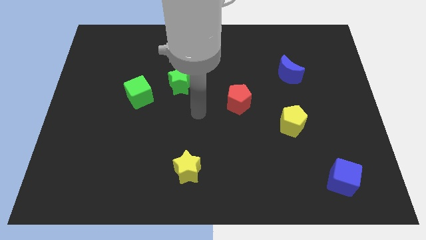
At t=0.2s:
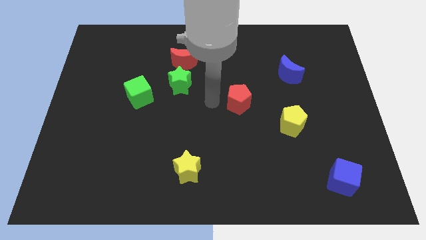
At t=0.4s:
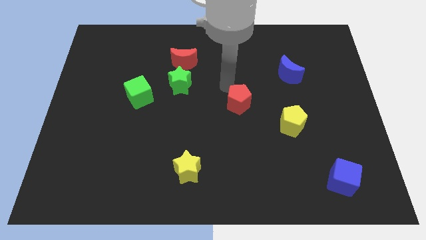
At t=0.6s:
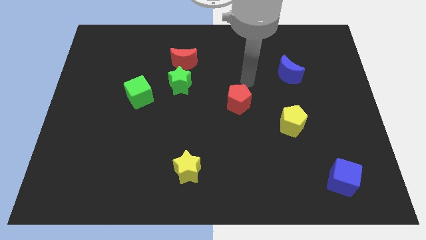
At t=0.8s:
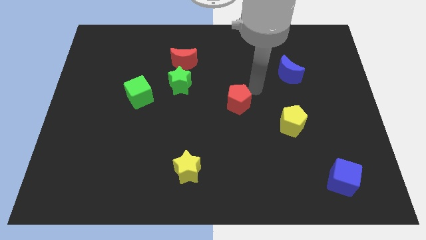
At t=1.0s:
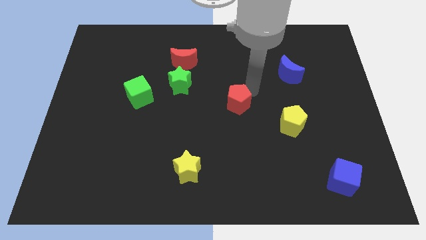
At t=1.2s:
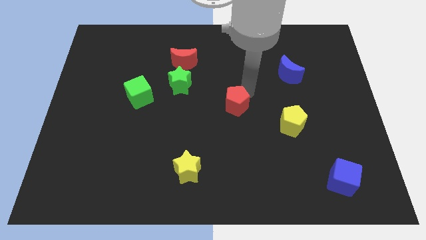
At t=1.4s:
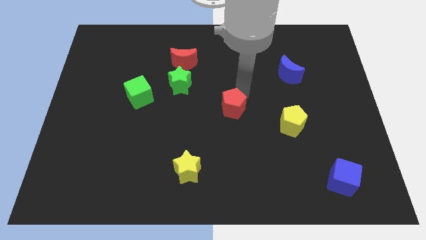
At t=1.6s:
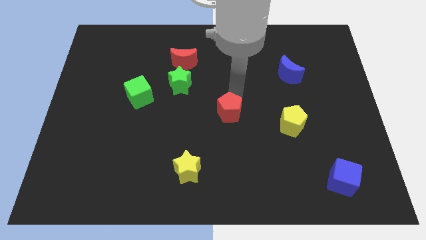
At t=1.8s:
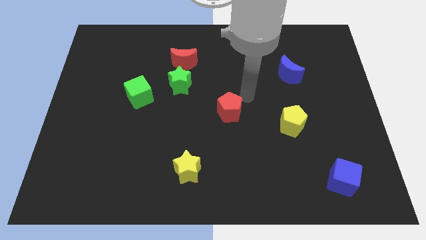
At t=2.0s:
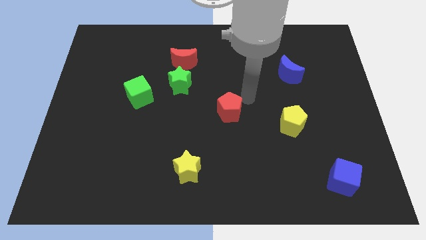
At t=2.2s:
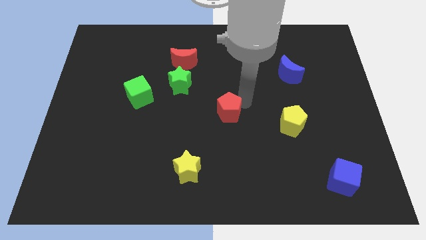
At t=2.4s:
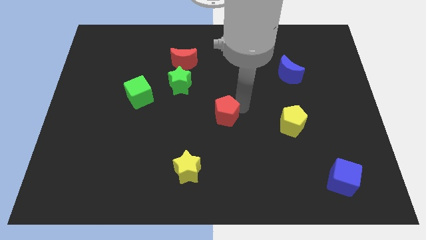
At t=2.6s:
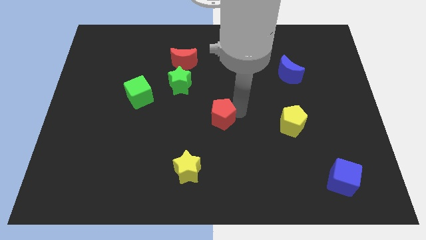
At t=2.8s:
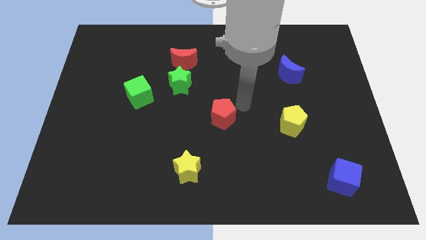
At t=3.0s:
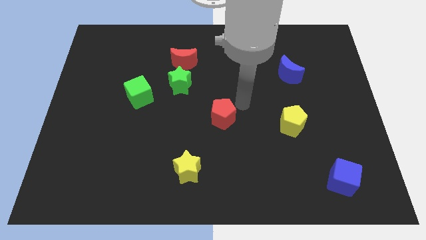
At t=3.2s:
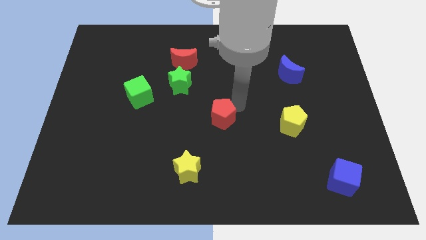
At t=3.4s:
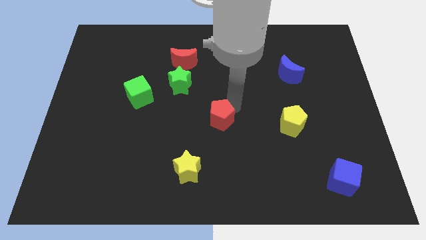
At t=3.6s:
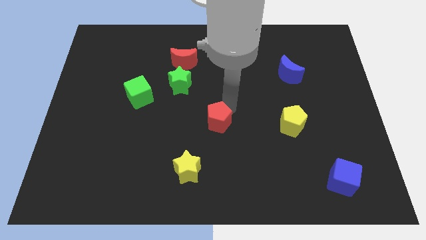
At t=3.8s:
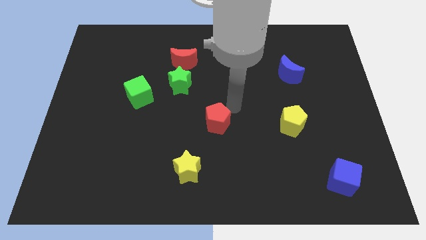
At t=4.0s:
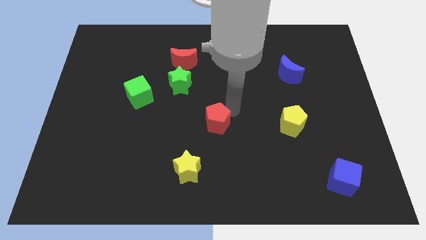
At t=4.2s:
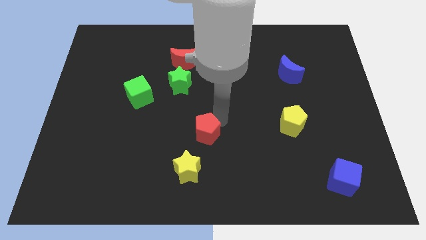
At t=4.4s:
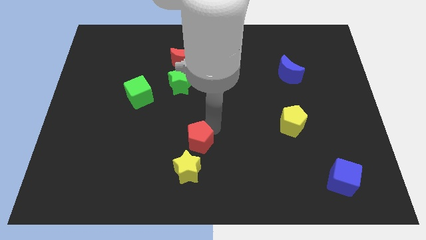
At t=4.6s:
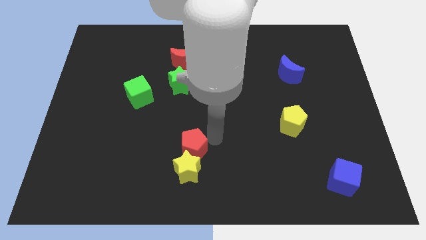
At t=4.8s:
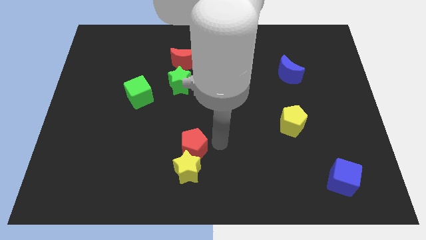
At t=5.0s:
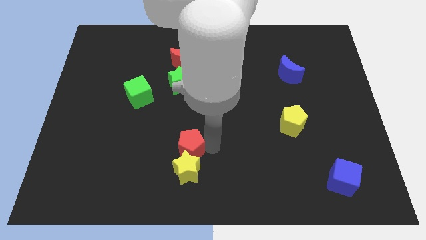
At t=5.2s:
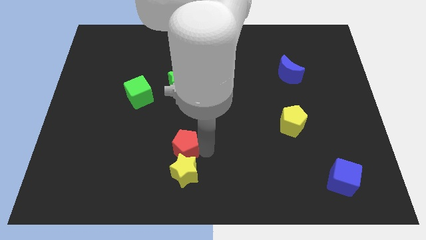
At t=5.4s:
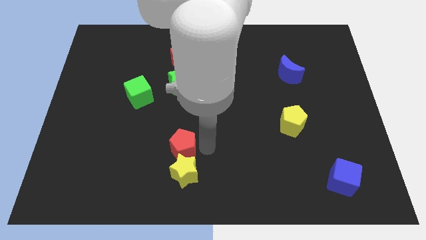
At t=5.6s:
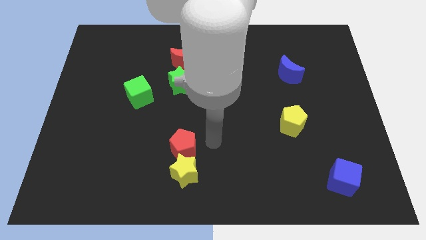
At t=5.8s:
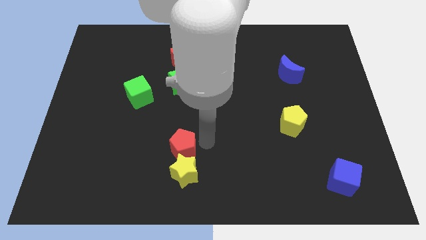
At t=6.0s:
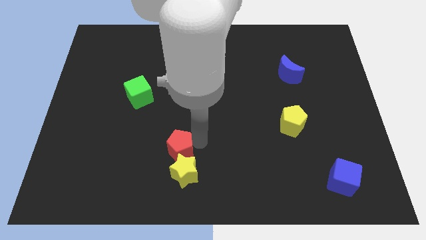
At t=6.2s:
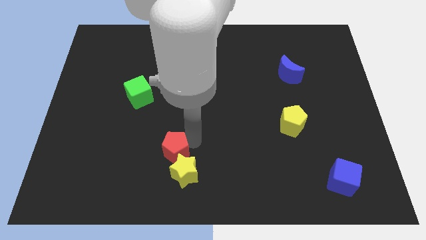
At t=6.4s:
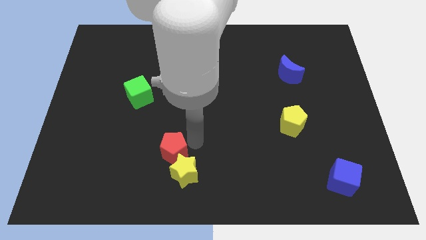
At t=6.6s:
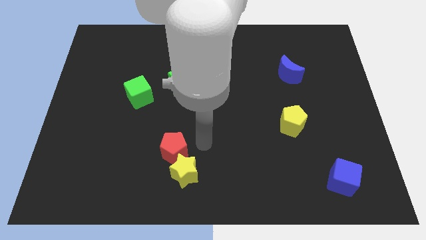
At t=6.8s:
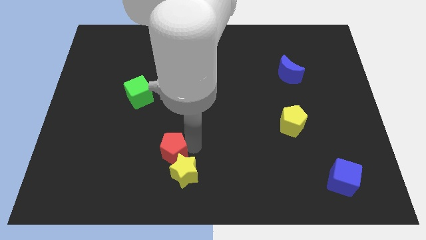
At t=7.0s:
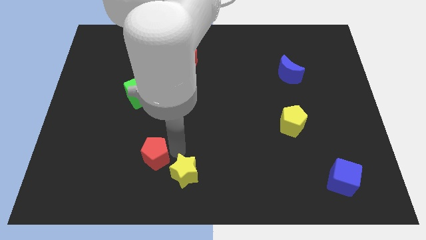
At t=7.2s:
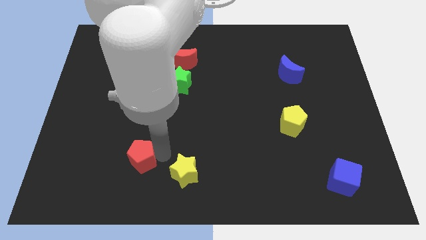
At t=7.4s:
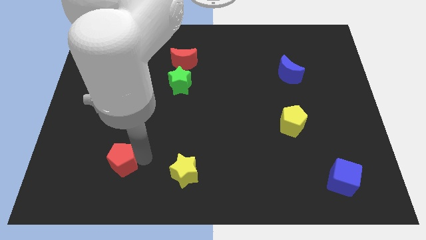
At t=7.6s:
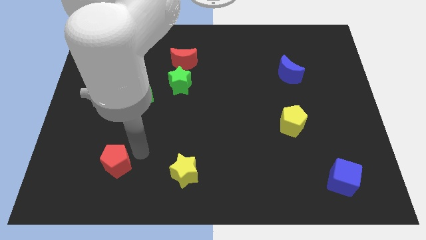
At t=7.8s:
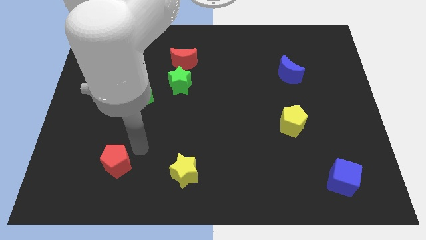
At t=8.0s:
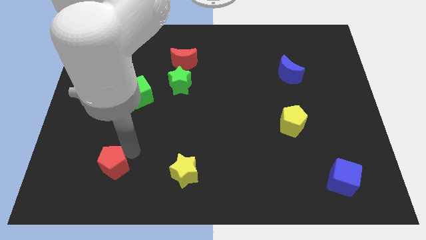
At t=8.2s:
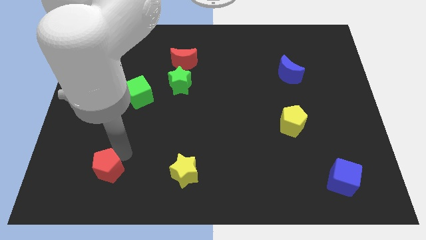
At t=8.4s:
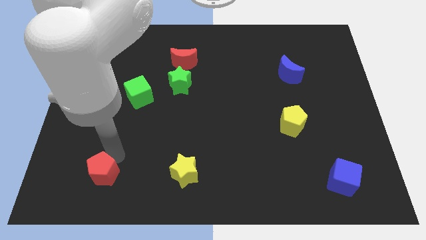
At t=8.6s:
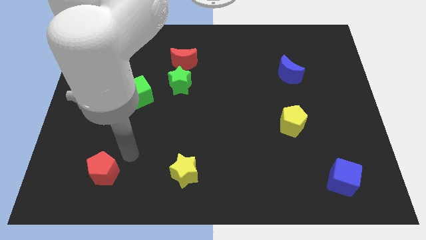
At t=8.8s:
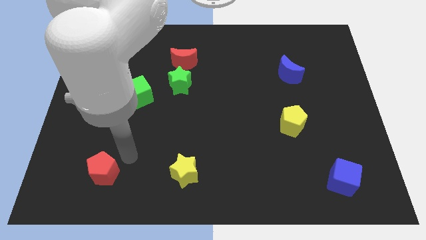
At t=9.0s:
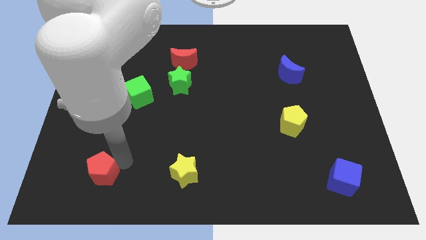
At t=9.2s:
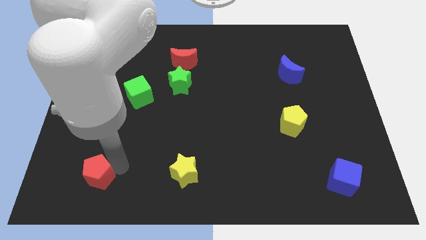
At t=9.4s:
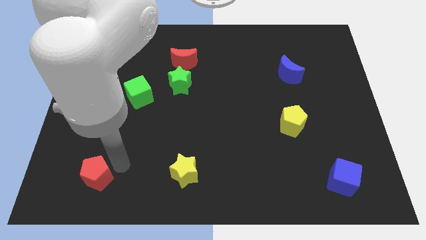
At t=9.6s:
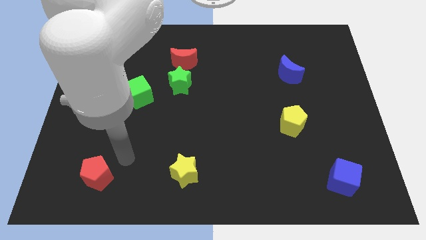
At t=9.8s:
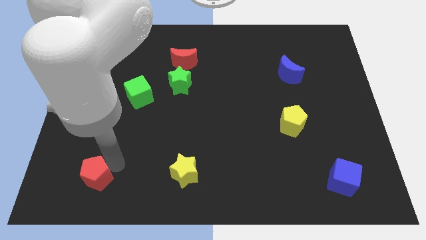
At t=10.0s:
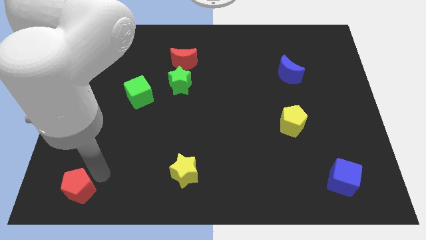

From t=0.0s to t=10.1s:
put the red pentagon to the lower left corner

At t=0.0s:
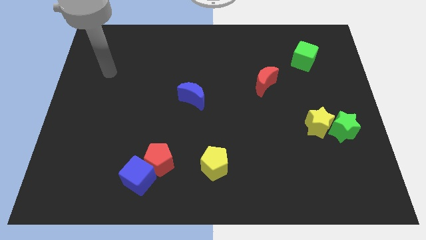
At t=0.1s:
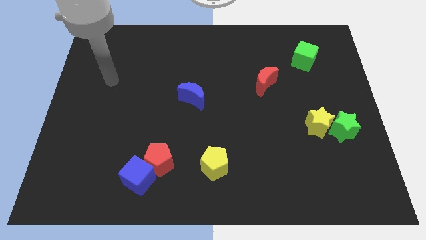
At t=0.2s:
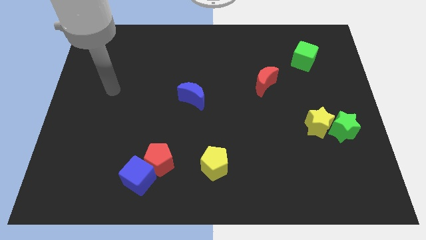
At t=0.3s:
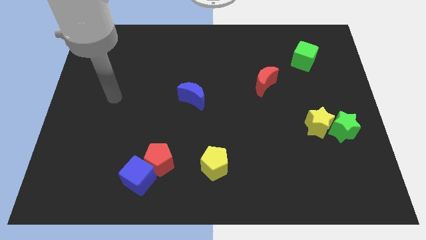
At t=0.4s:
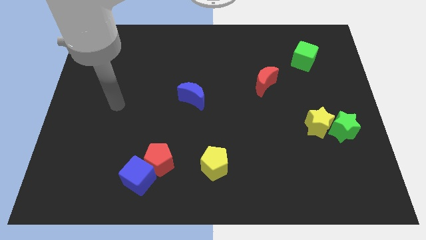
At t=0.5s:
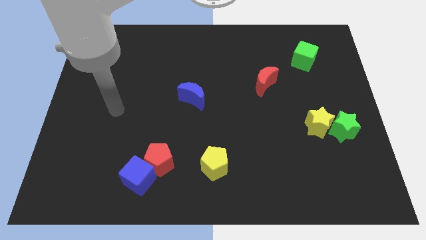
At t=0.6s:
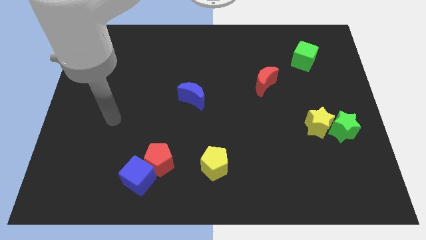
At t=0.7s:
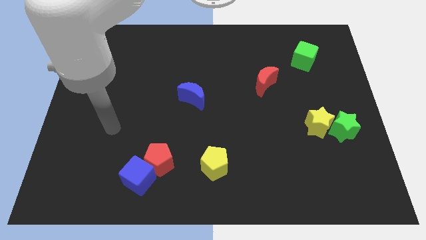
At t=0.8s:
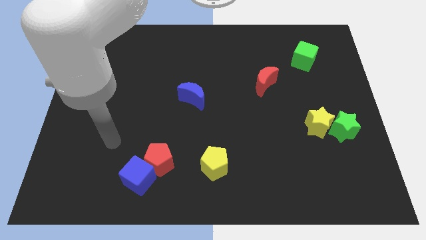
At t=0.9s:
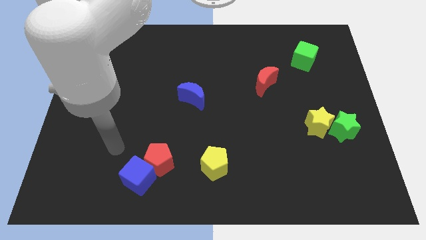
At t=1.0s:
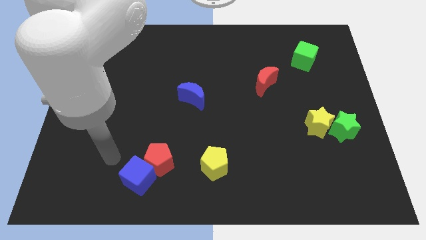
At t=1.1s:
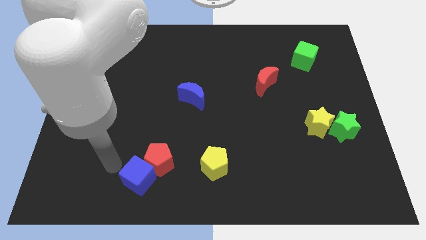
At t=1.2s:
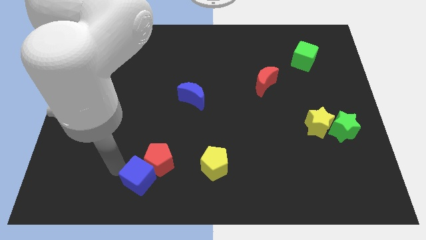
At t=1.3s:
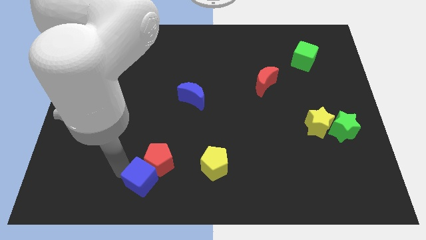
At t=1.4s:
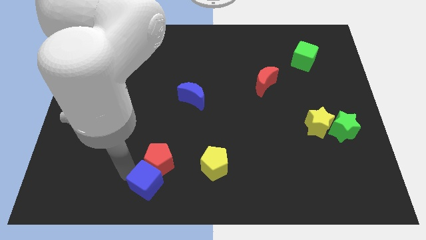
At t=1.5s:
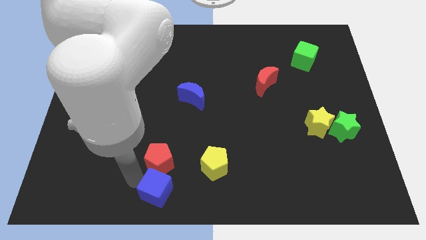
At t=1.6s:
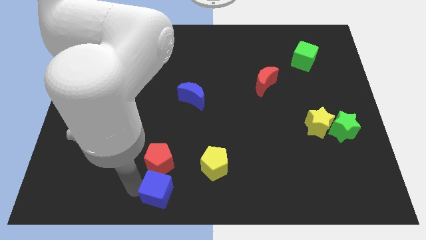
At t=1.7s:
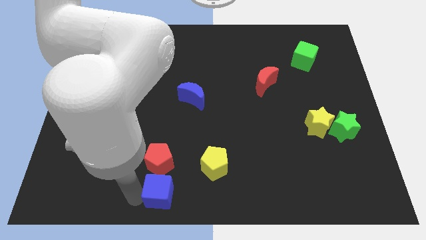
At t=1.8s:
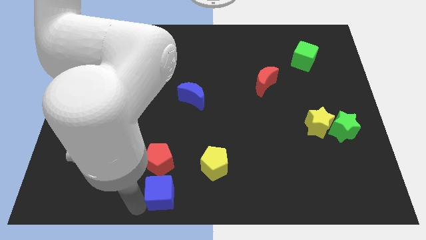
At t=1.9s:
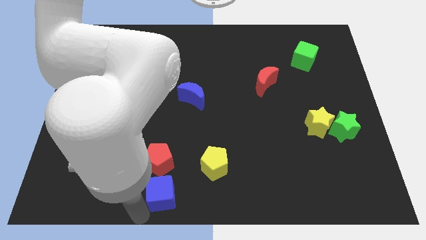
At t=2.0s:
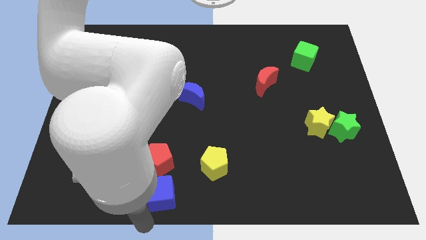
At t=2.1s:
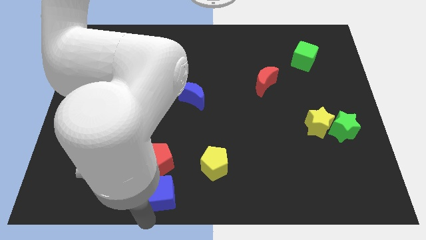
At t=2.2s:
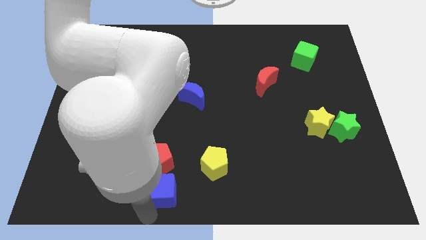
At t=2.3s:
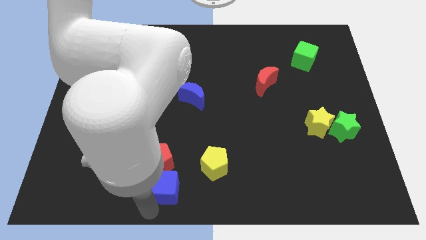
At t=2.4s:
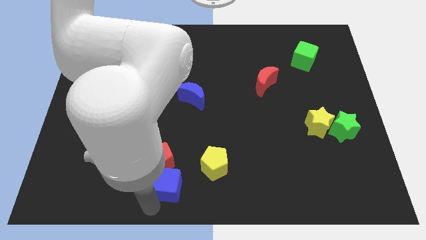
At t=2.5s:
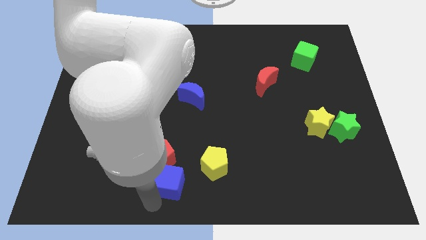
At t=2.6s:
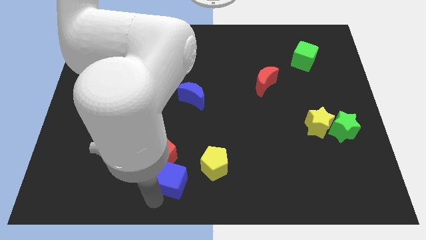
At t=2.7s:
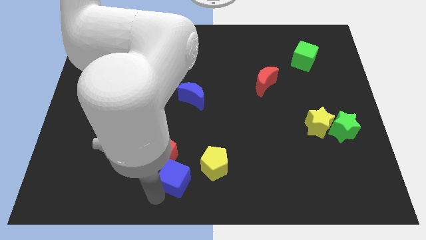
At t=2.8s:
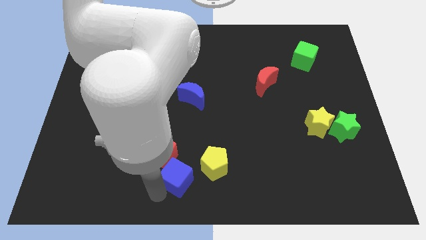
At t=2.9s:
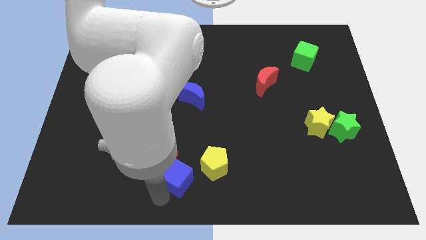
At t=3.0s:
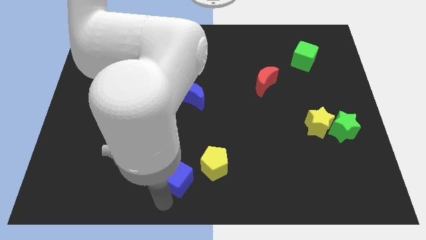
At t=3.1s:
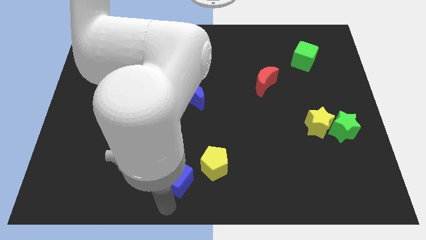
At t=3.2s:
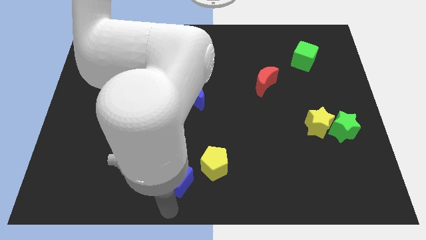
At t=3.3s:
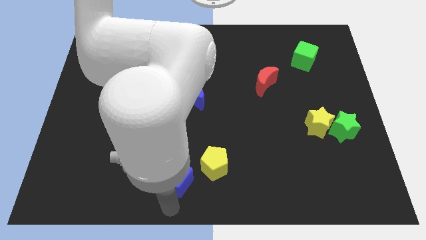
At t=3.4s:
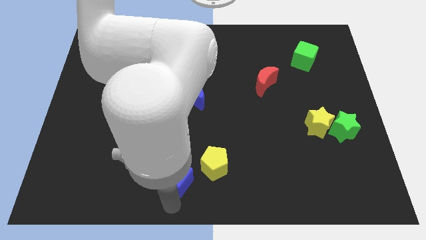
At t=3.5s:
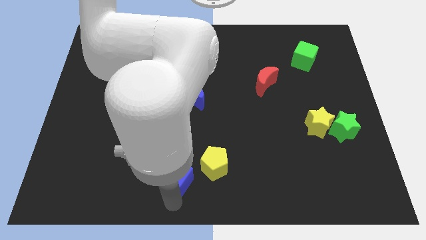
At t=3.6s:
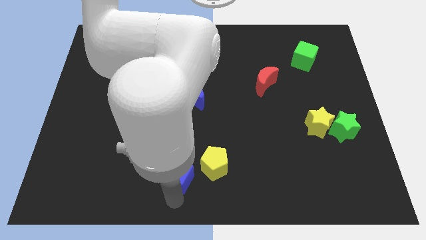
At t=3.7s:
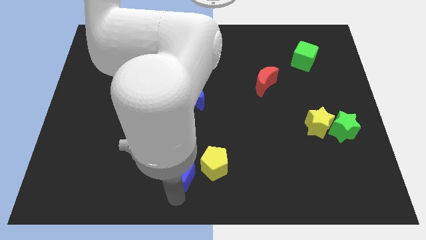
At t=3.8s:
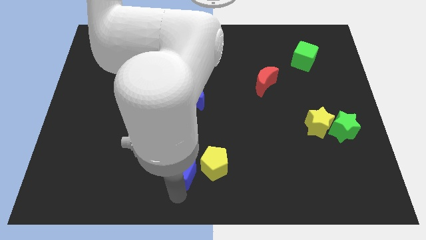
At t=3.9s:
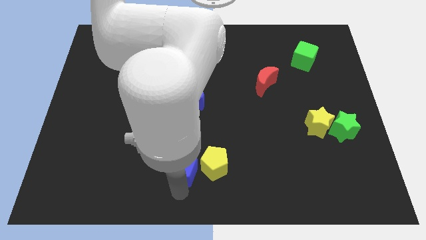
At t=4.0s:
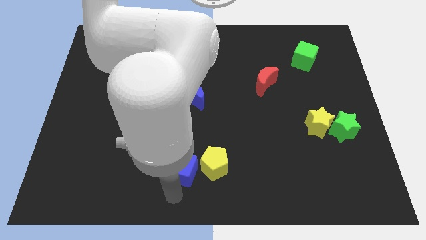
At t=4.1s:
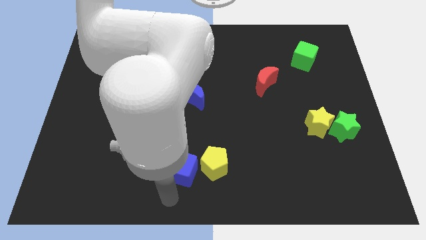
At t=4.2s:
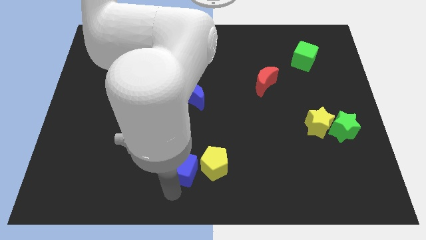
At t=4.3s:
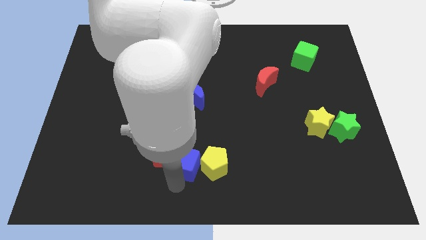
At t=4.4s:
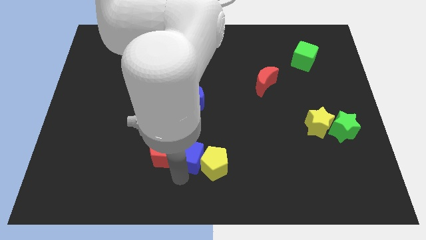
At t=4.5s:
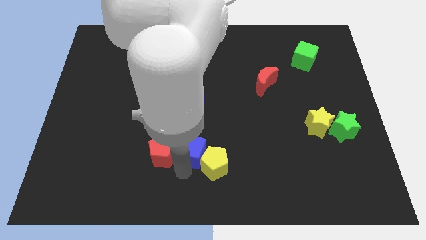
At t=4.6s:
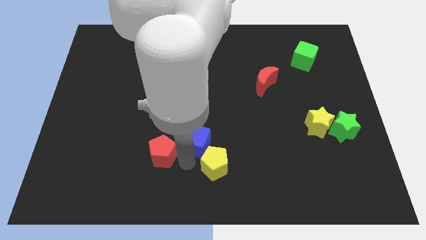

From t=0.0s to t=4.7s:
push the blue cube to the middle of the board
